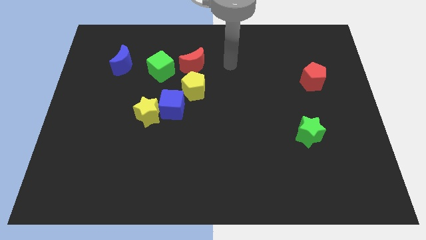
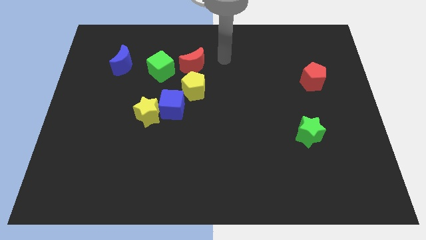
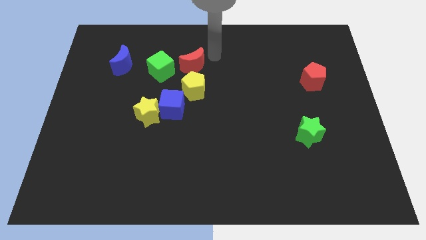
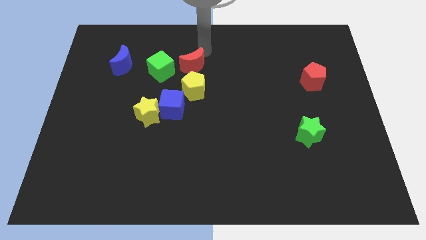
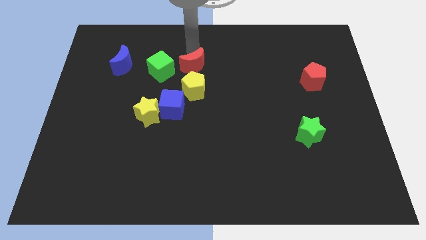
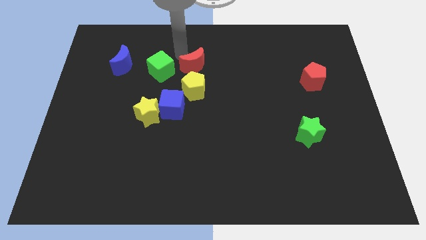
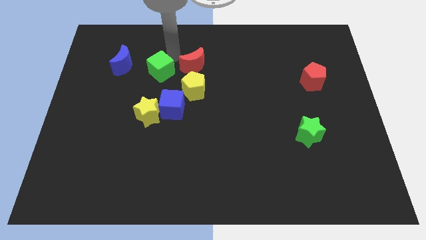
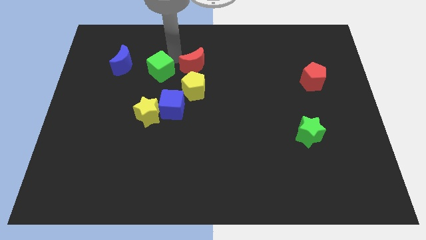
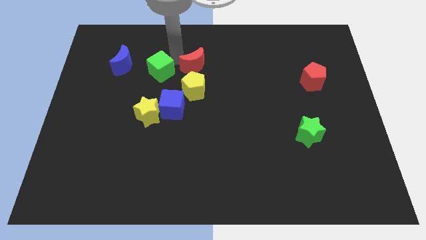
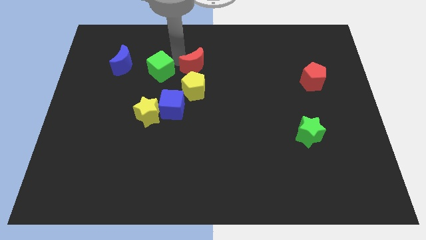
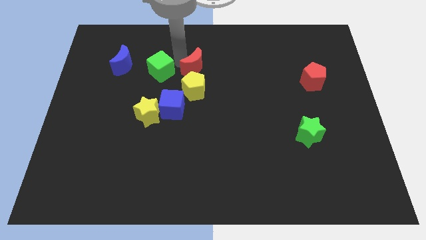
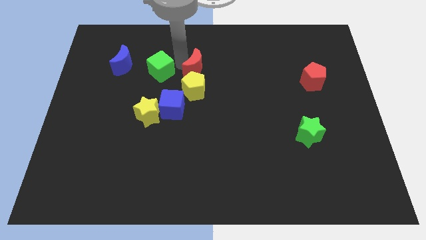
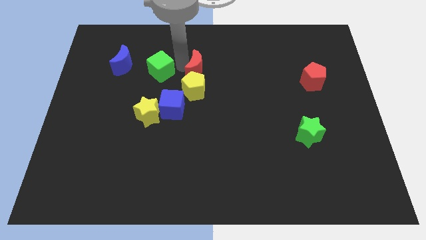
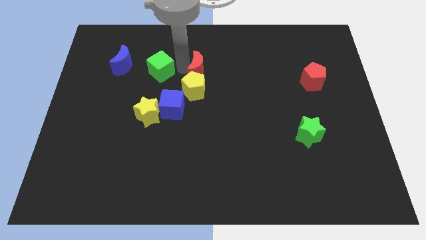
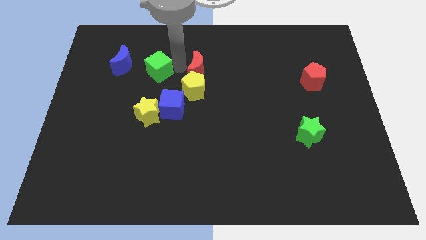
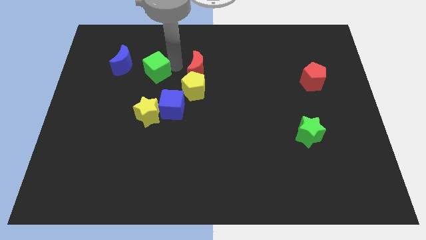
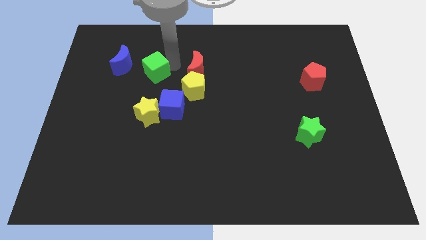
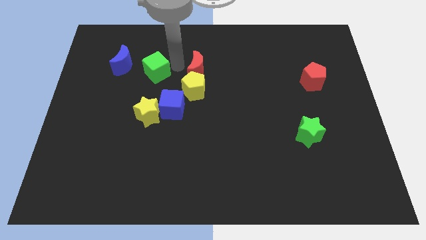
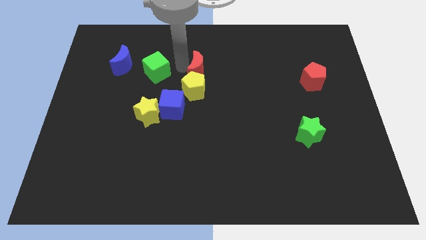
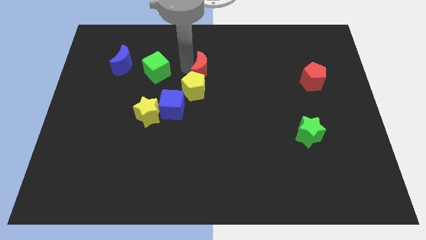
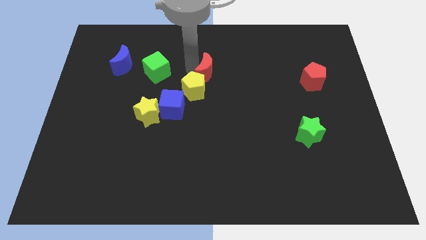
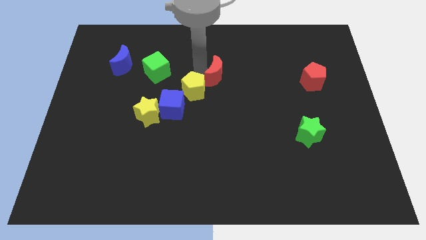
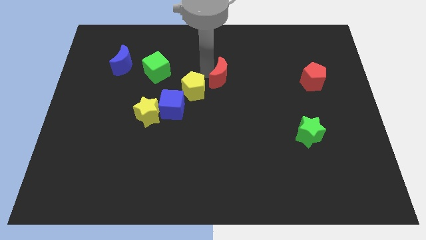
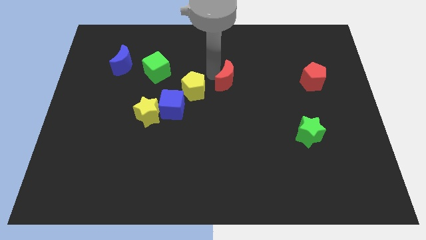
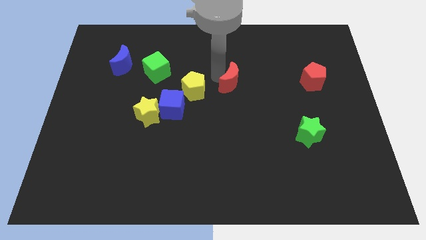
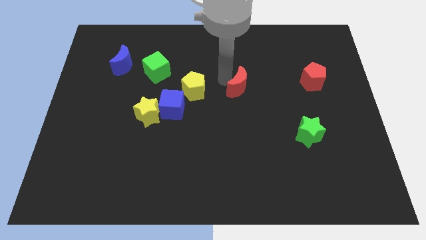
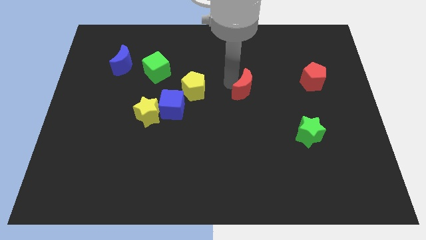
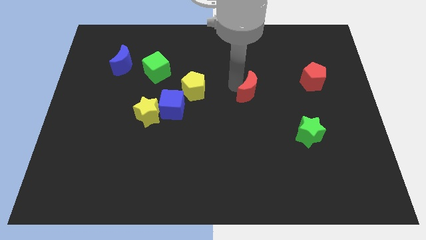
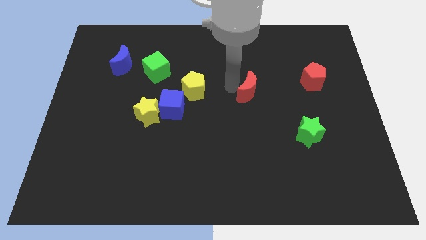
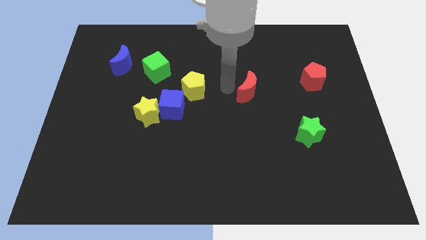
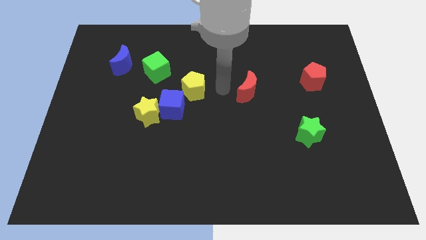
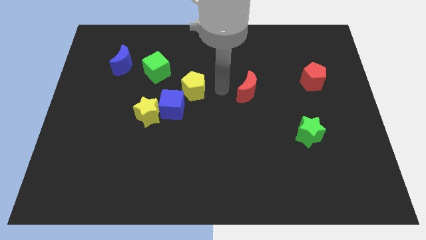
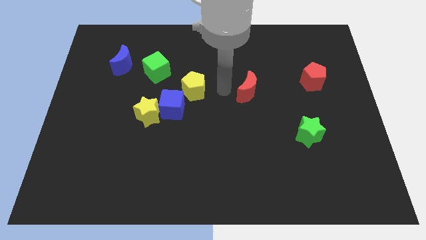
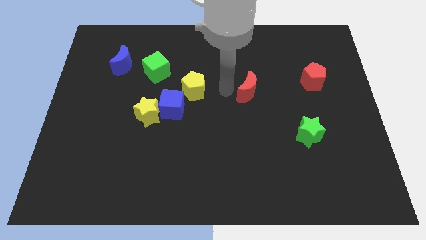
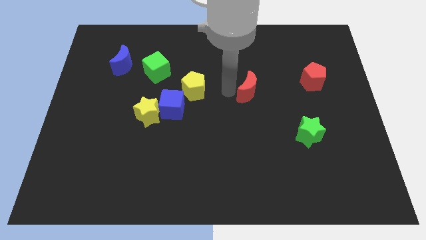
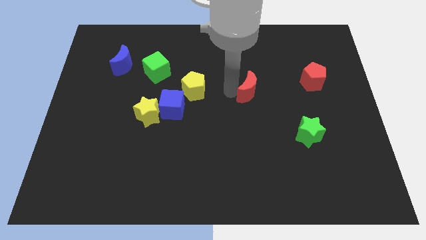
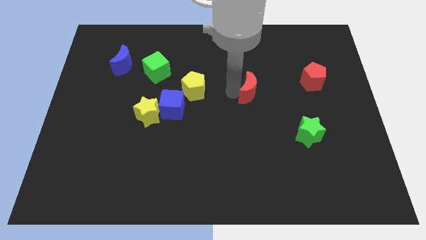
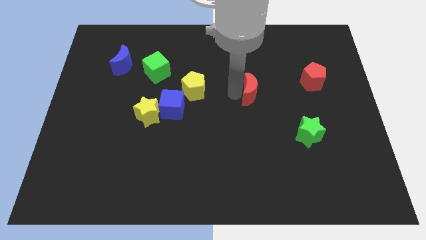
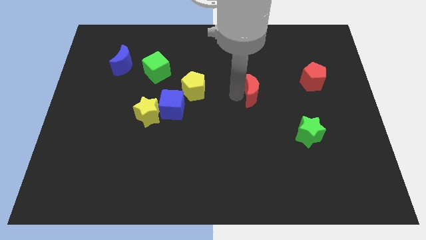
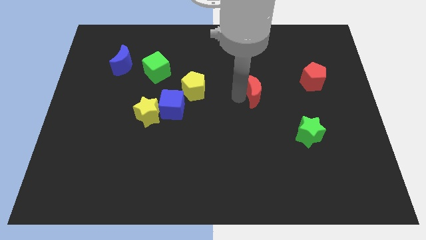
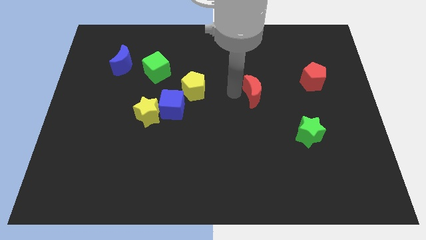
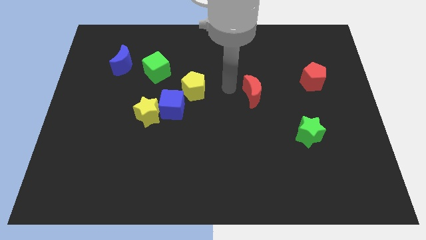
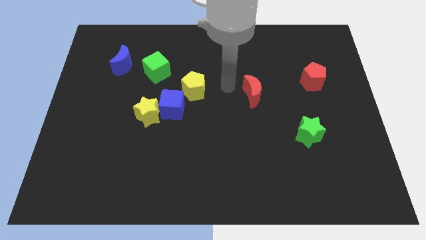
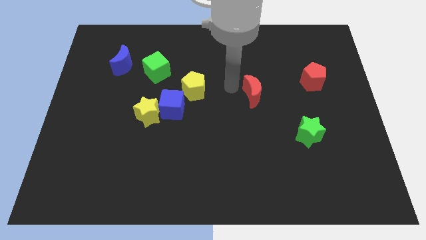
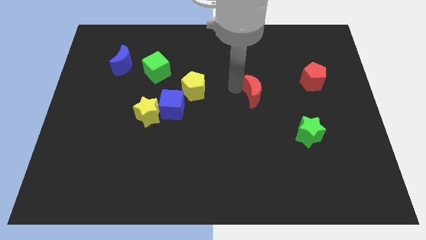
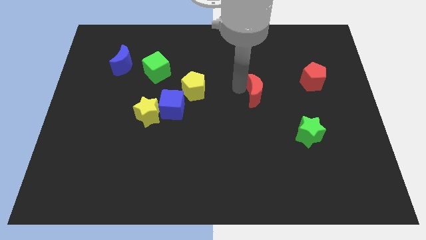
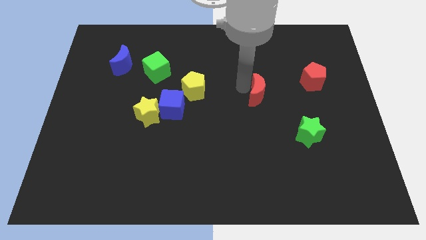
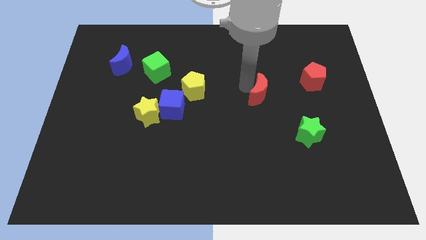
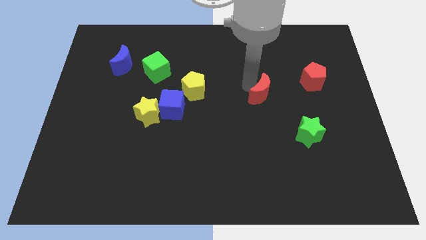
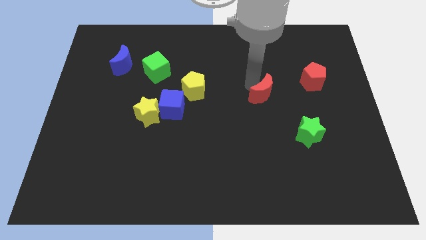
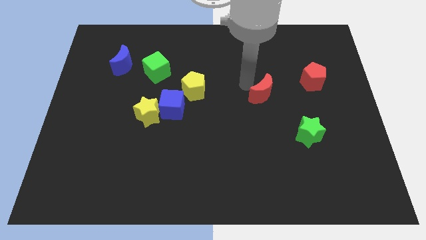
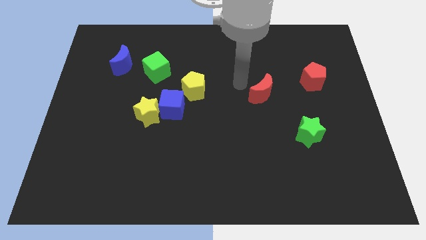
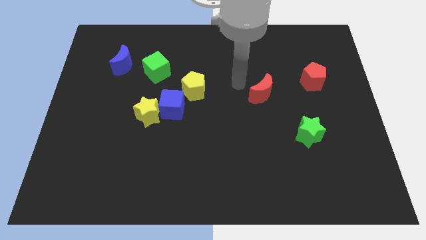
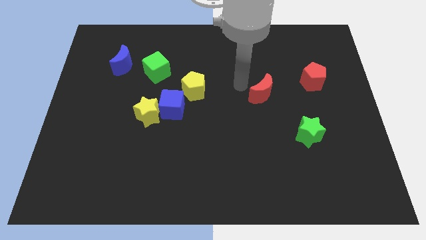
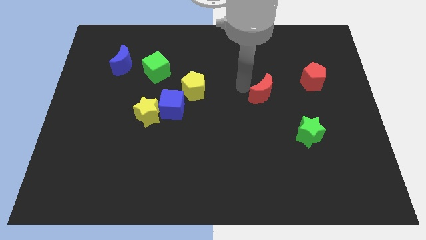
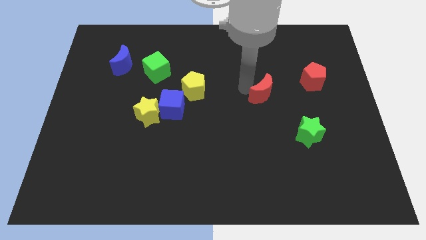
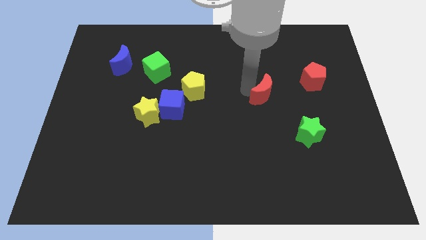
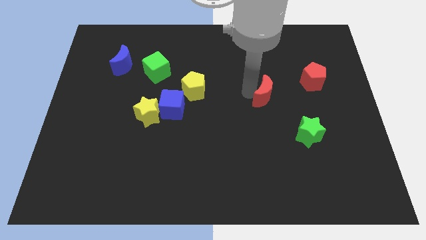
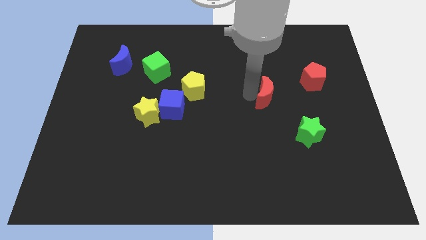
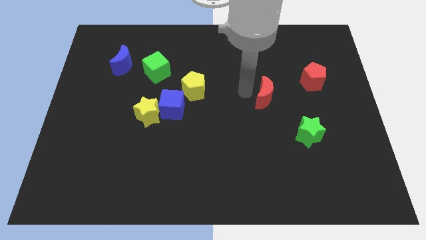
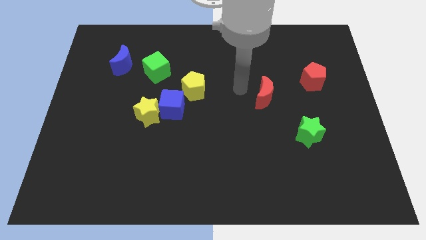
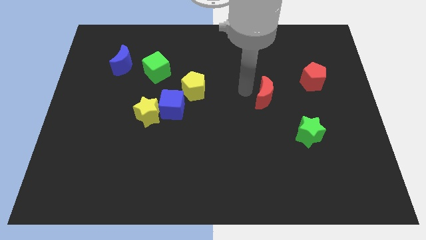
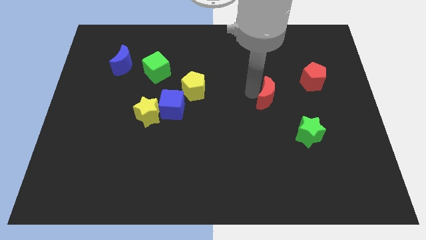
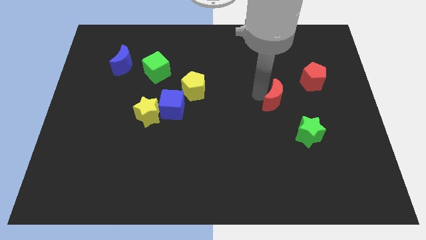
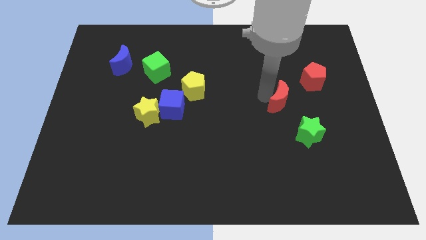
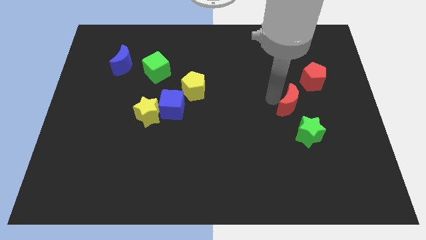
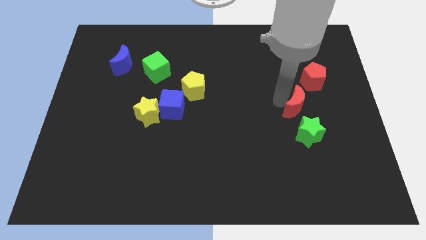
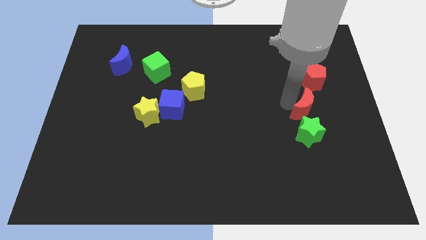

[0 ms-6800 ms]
push the red moon to the bottom of the red pentagon

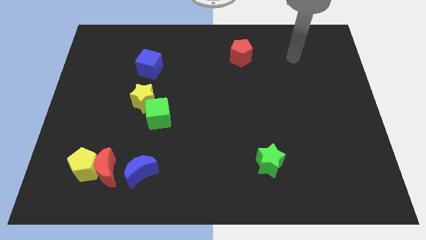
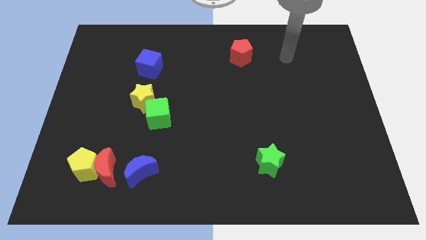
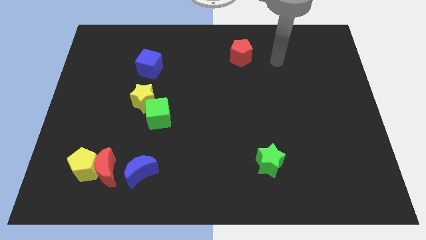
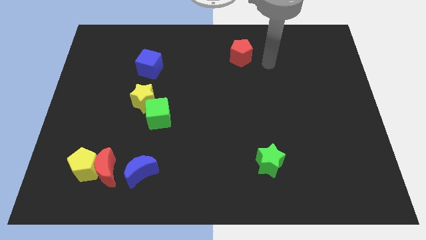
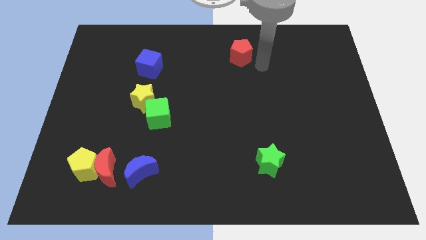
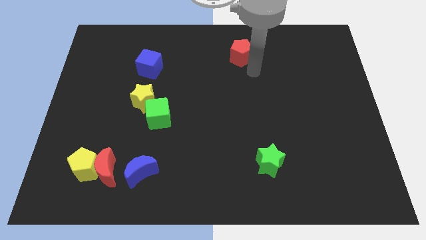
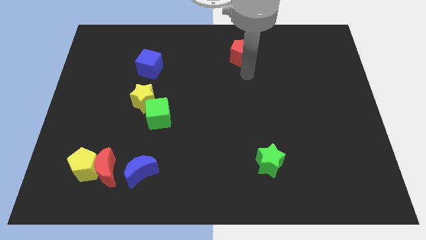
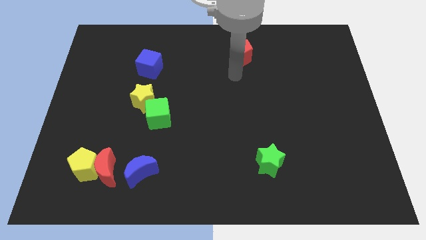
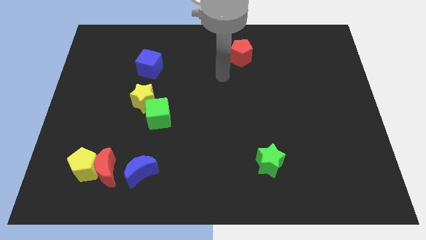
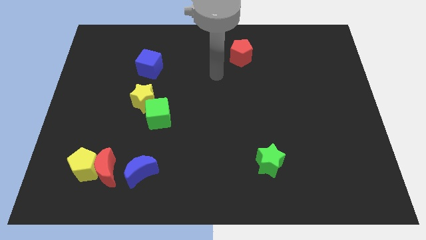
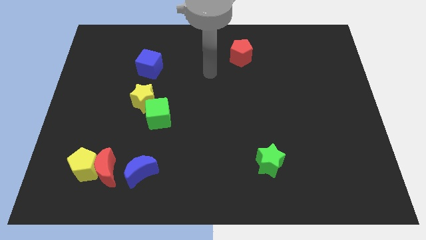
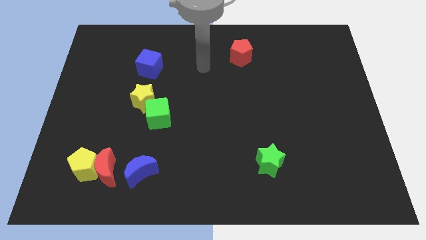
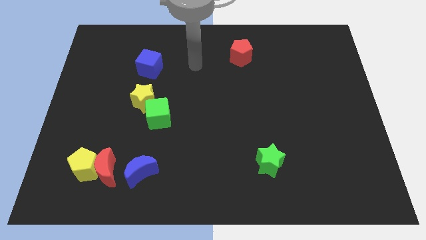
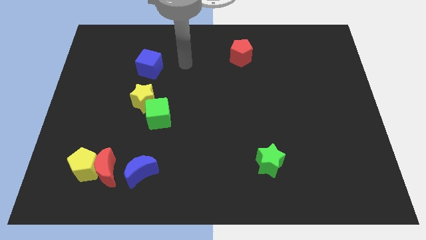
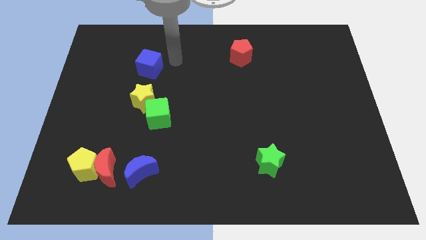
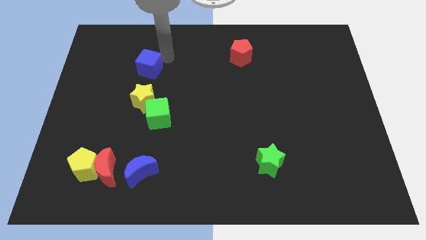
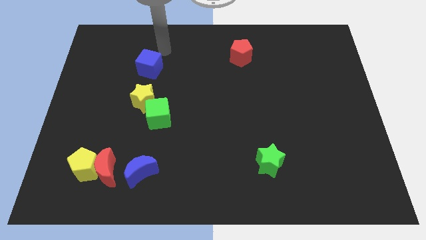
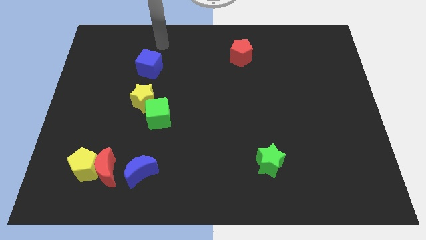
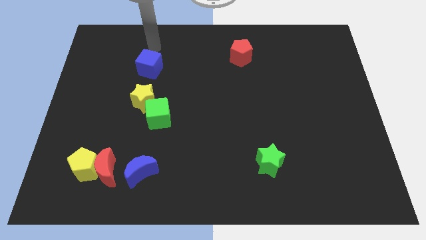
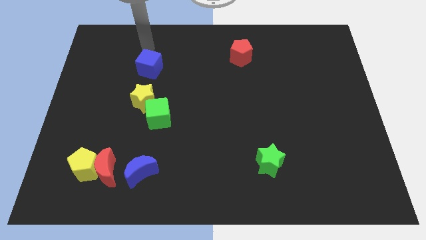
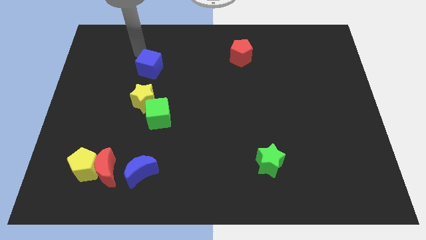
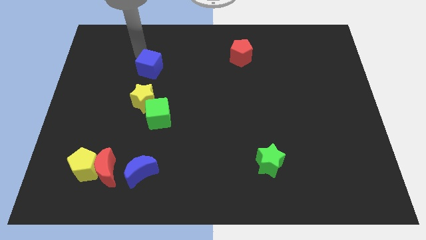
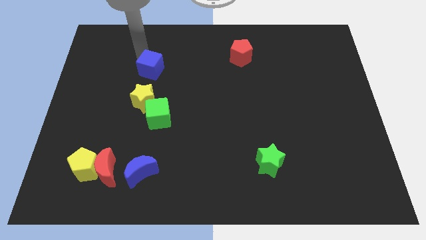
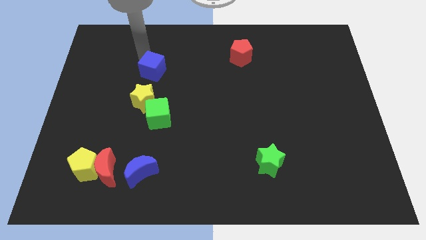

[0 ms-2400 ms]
slide the blue cube above the green cube
